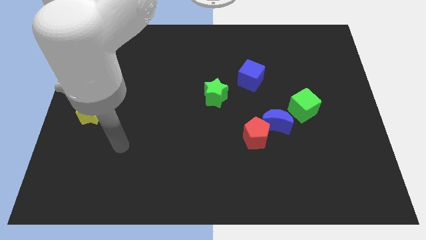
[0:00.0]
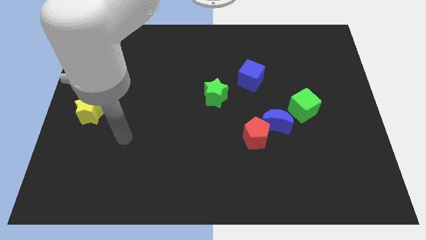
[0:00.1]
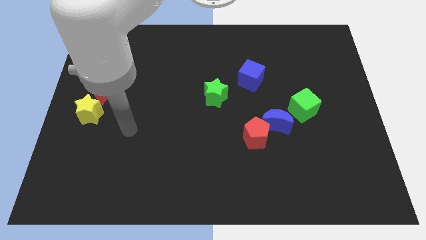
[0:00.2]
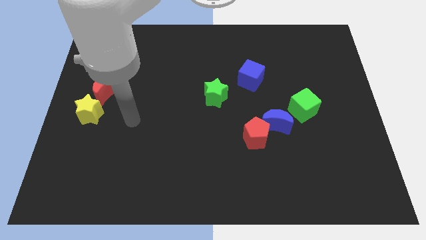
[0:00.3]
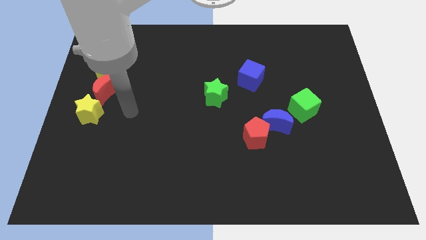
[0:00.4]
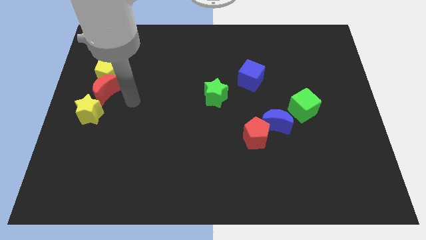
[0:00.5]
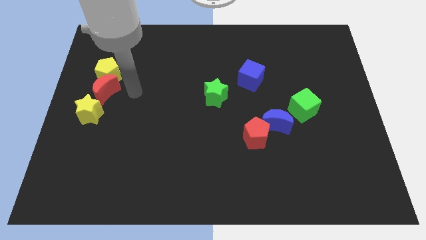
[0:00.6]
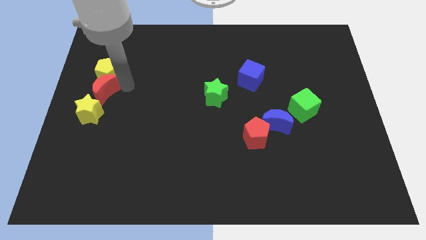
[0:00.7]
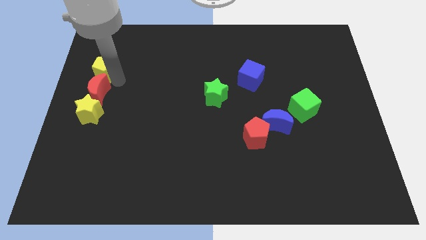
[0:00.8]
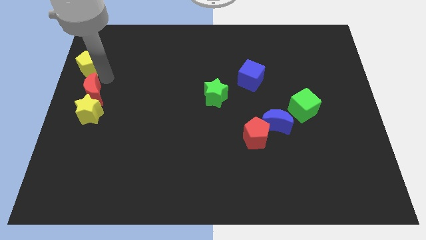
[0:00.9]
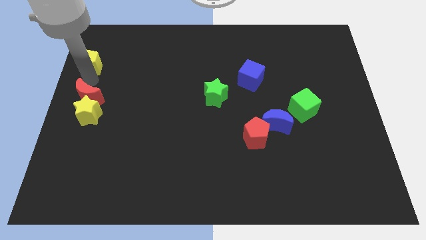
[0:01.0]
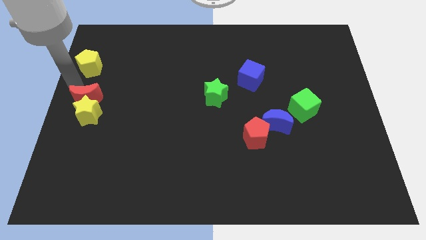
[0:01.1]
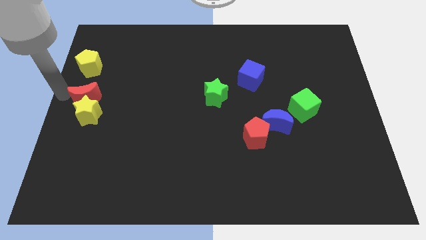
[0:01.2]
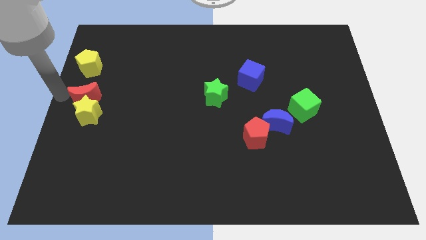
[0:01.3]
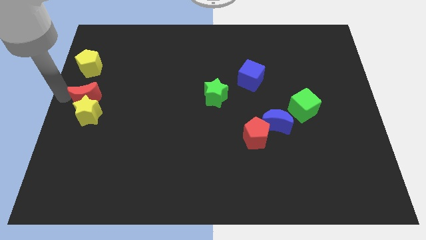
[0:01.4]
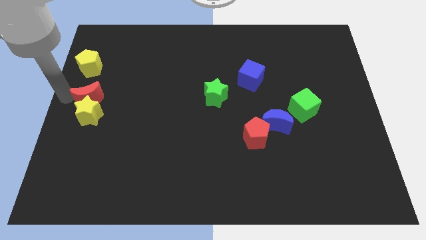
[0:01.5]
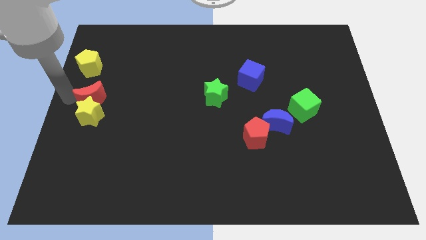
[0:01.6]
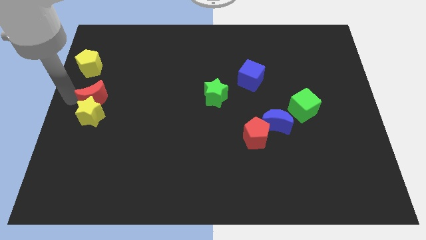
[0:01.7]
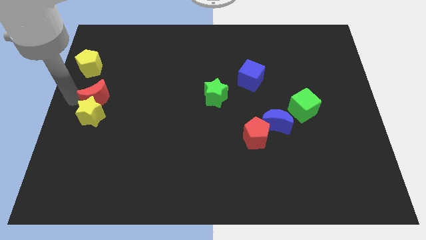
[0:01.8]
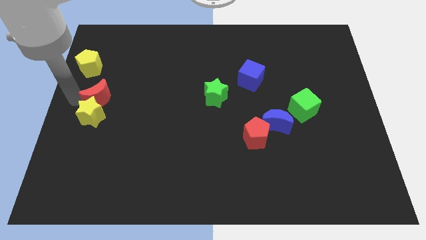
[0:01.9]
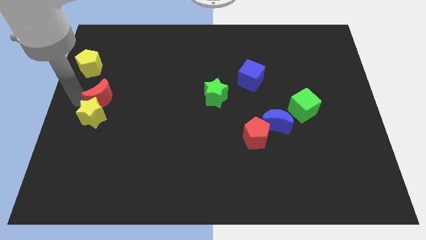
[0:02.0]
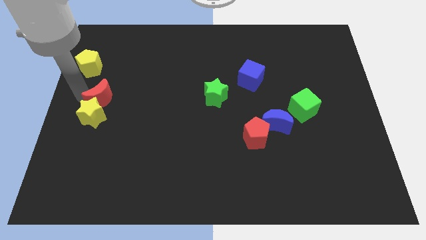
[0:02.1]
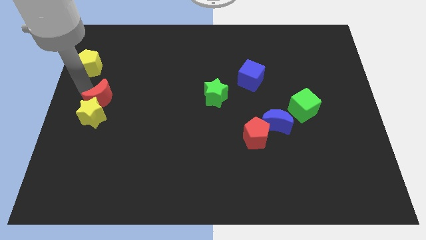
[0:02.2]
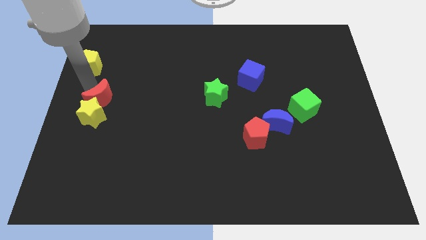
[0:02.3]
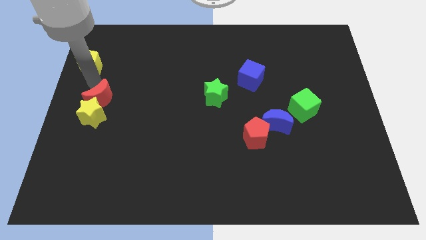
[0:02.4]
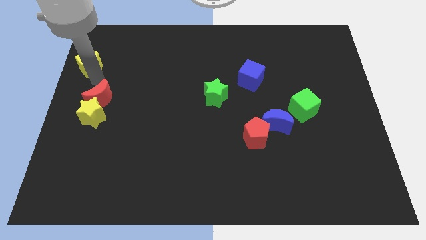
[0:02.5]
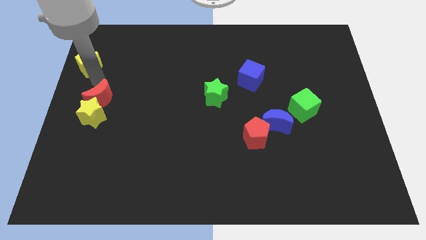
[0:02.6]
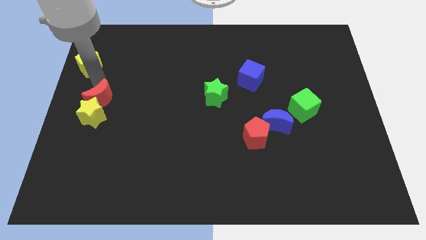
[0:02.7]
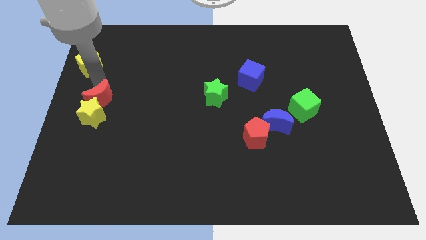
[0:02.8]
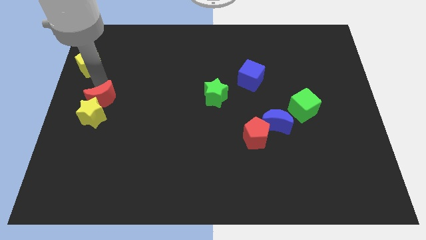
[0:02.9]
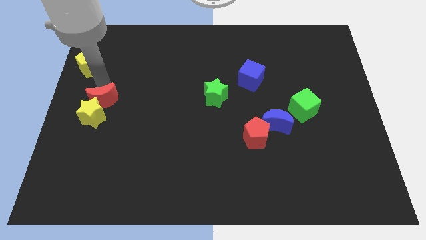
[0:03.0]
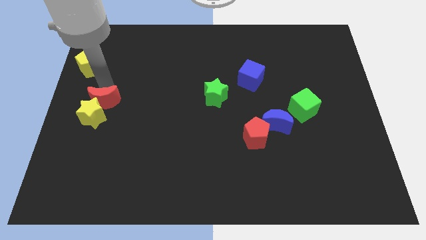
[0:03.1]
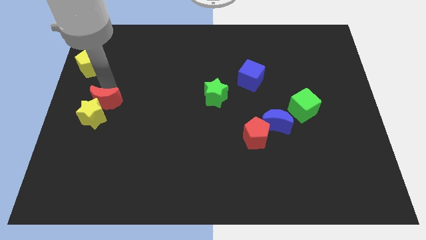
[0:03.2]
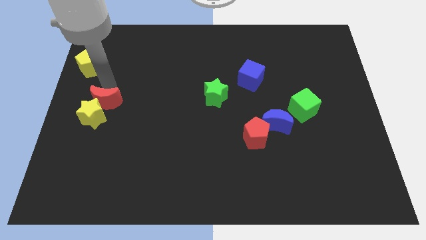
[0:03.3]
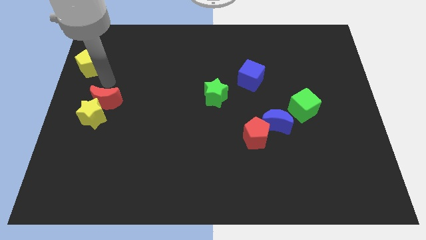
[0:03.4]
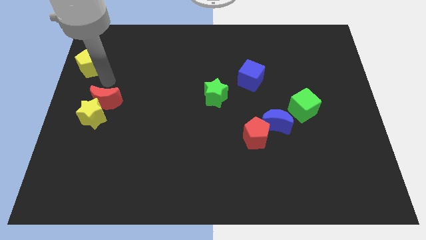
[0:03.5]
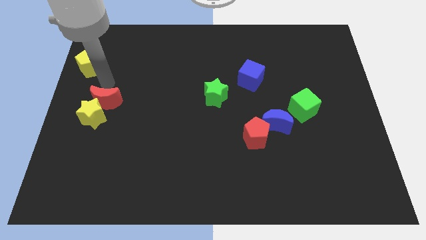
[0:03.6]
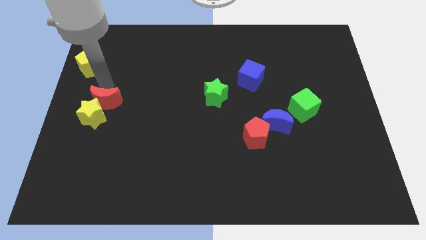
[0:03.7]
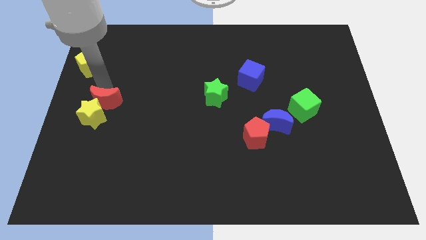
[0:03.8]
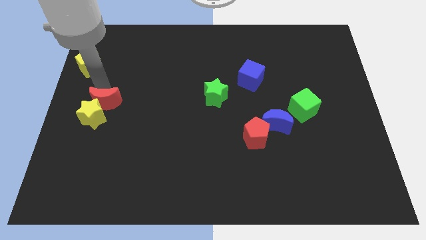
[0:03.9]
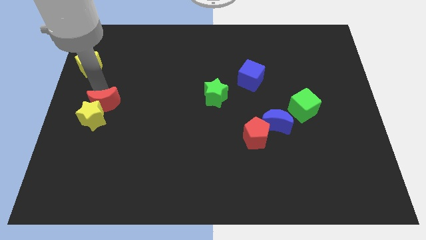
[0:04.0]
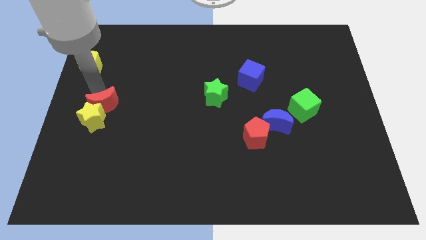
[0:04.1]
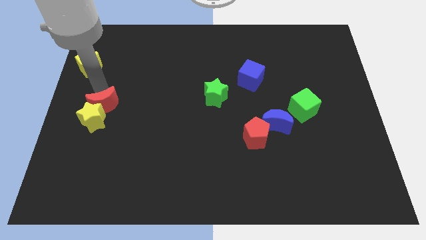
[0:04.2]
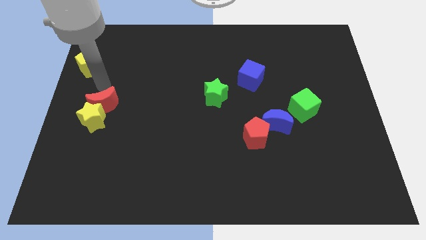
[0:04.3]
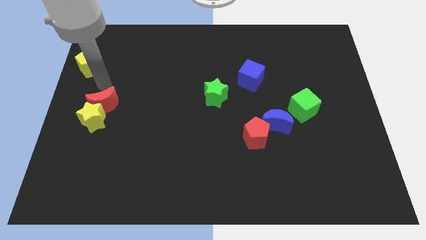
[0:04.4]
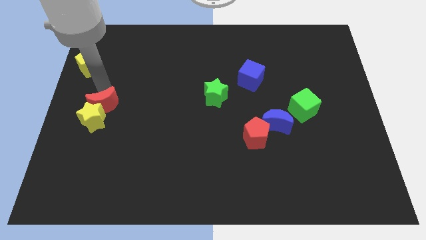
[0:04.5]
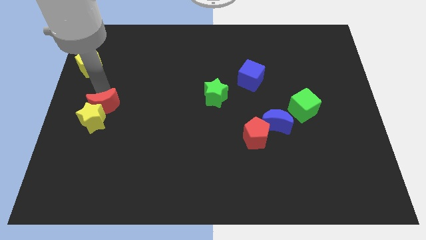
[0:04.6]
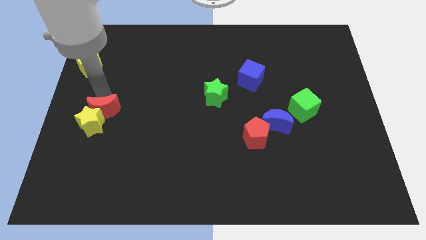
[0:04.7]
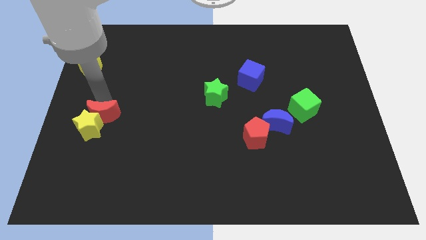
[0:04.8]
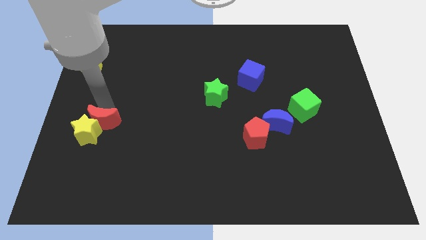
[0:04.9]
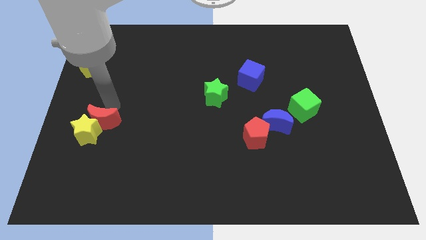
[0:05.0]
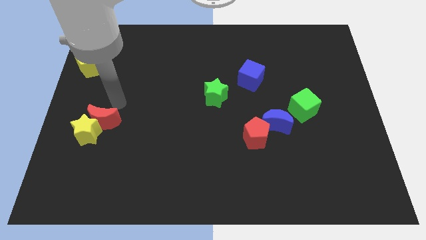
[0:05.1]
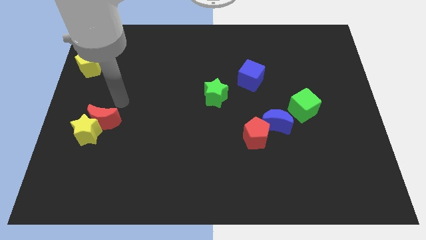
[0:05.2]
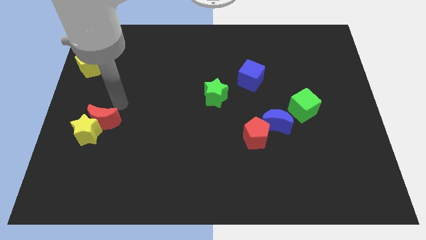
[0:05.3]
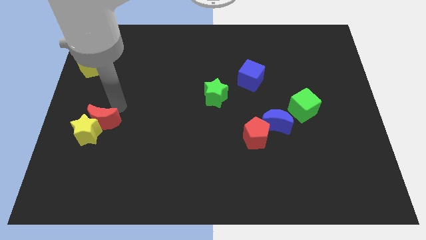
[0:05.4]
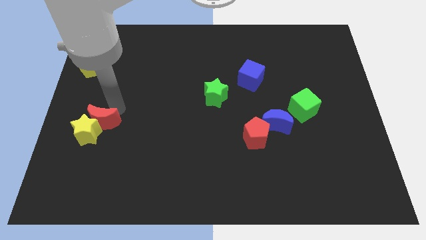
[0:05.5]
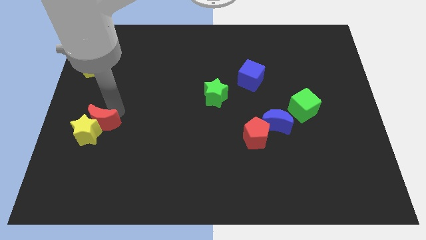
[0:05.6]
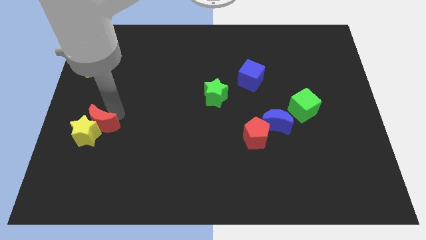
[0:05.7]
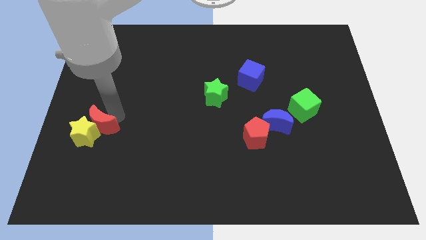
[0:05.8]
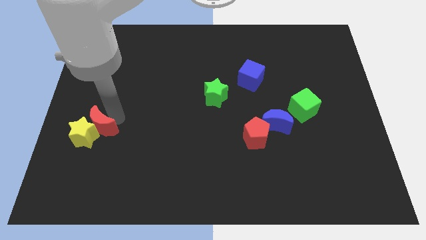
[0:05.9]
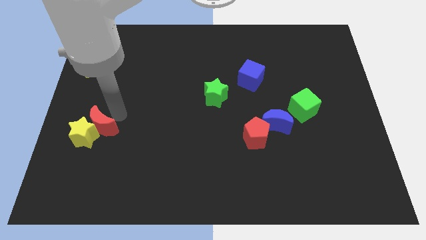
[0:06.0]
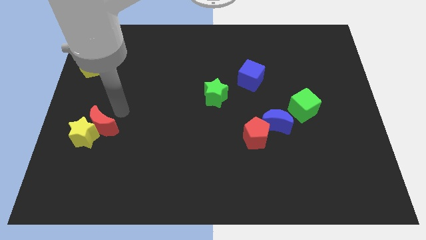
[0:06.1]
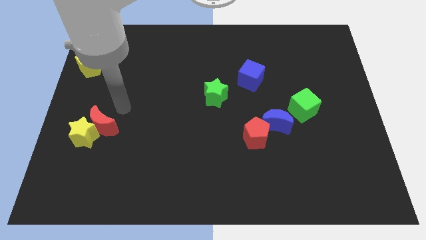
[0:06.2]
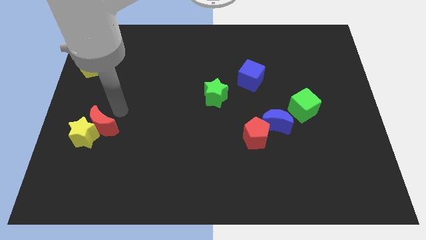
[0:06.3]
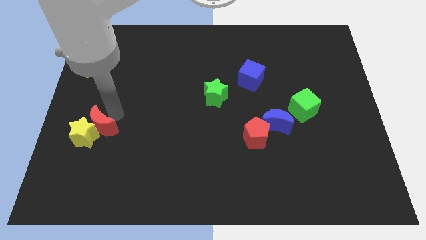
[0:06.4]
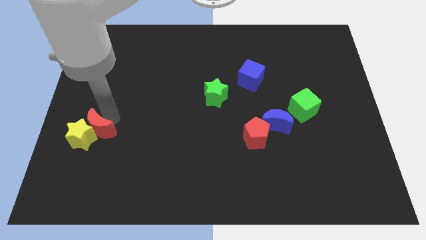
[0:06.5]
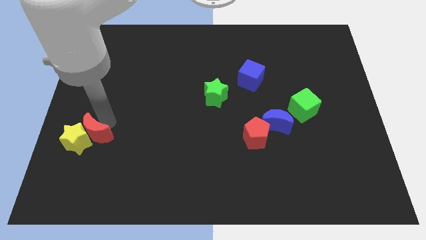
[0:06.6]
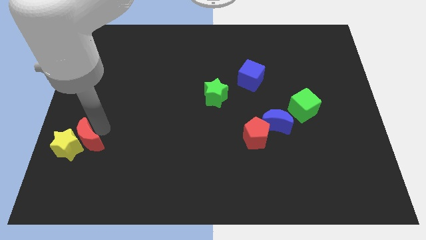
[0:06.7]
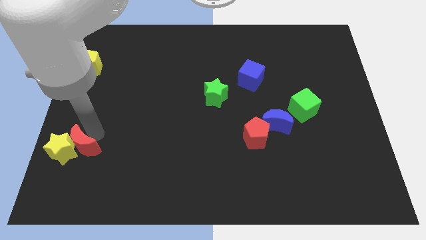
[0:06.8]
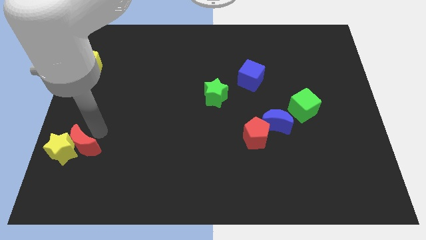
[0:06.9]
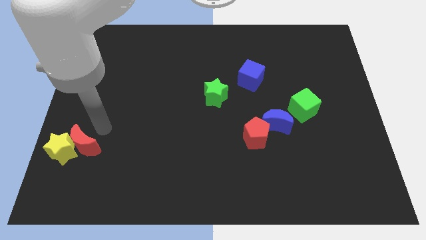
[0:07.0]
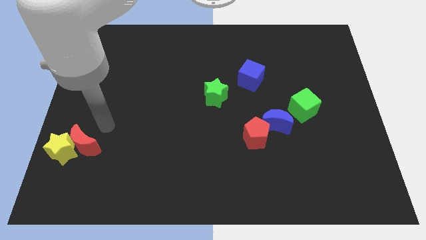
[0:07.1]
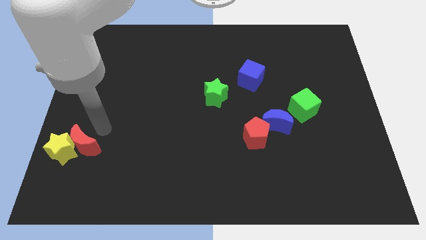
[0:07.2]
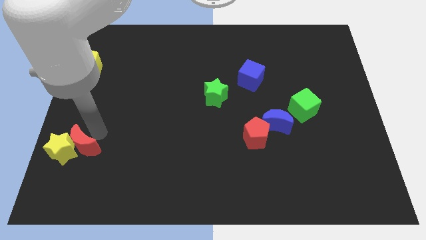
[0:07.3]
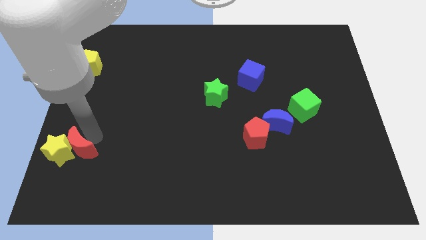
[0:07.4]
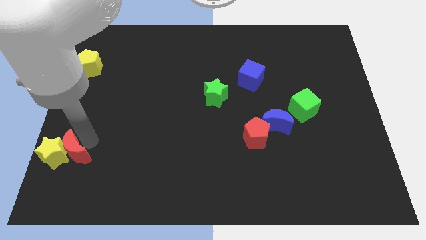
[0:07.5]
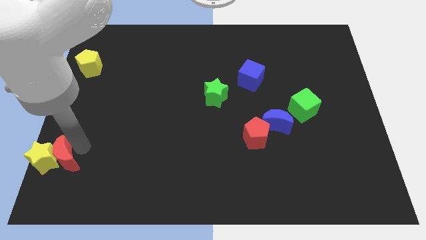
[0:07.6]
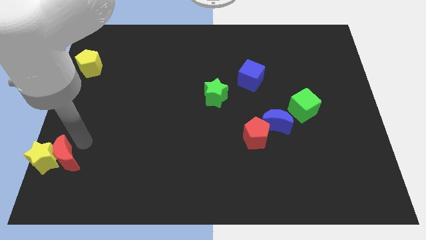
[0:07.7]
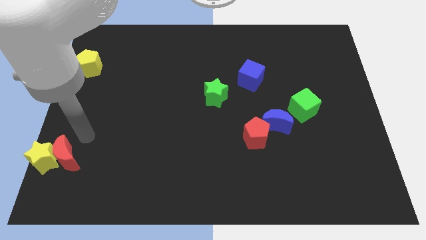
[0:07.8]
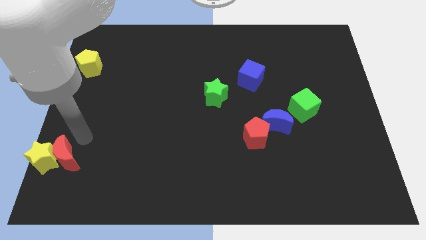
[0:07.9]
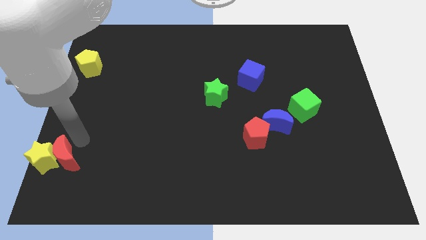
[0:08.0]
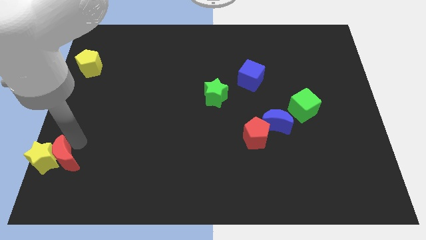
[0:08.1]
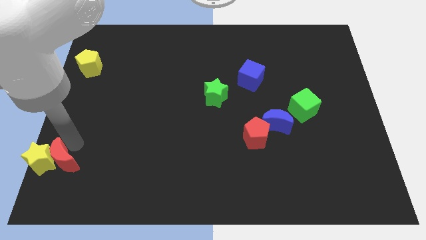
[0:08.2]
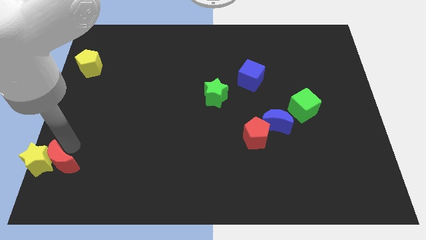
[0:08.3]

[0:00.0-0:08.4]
push the red moon to the bottom left corner
